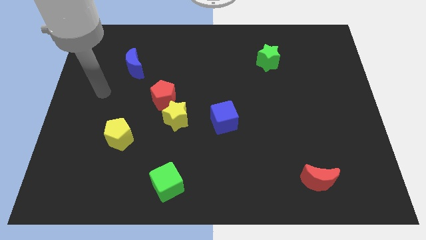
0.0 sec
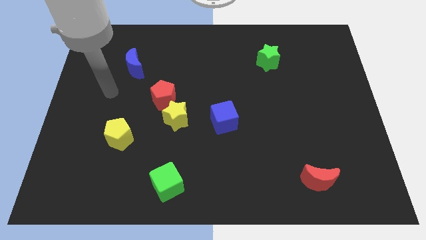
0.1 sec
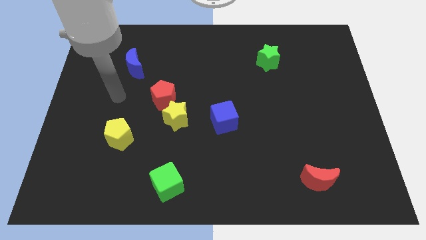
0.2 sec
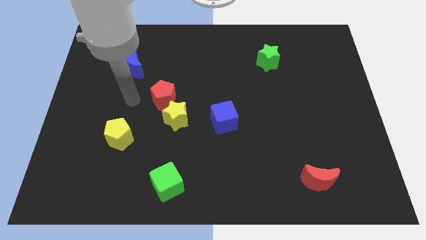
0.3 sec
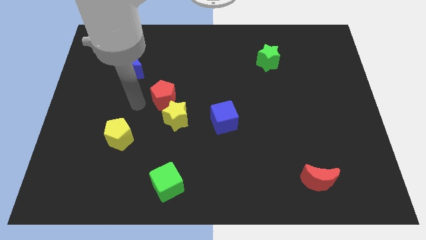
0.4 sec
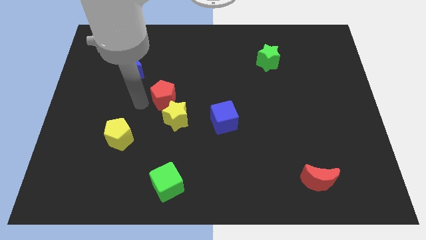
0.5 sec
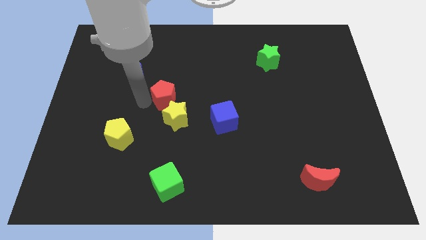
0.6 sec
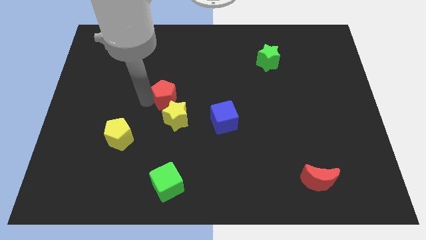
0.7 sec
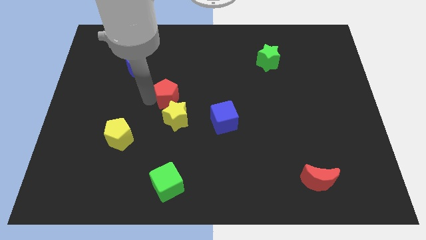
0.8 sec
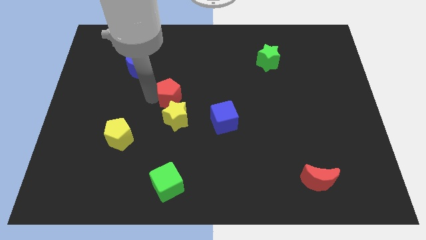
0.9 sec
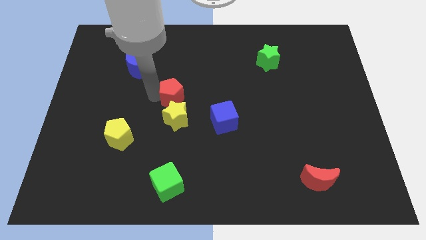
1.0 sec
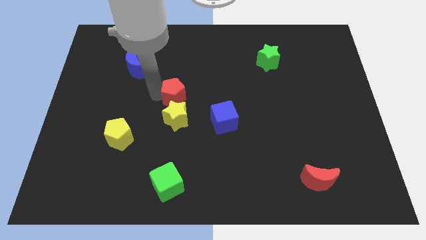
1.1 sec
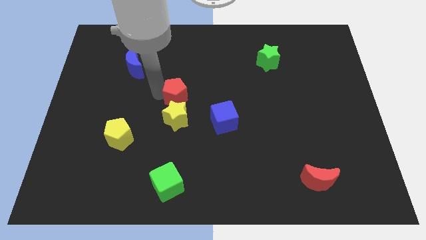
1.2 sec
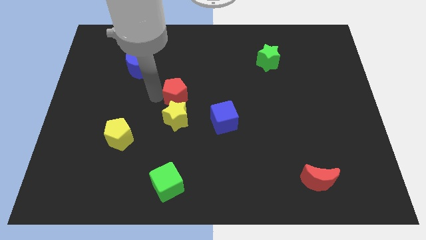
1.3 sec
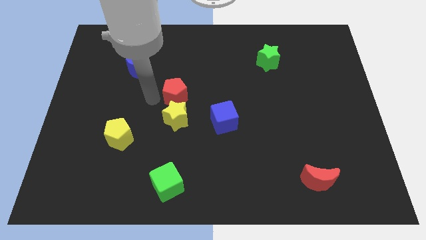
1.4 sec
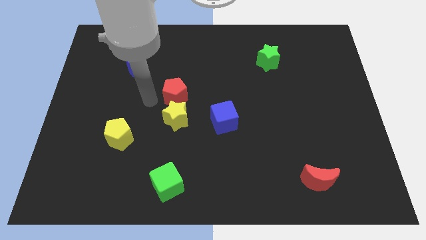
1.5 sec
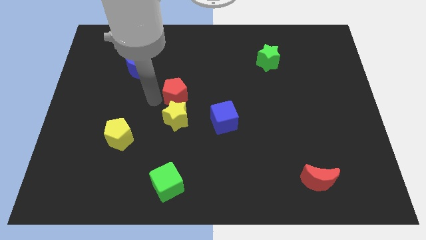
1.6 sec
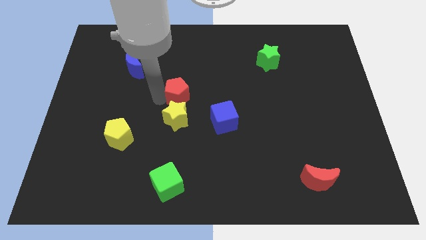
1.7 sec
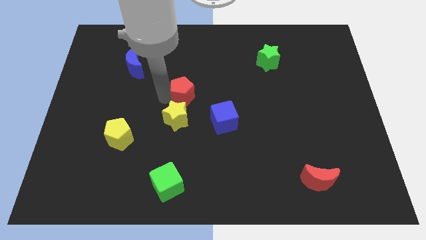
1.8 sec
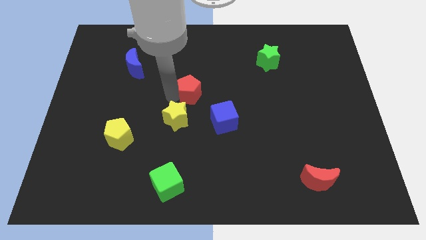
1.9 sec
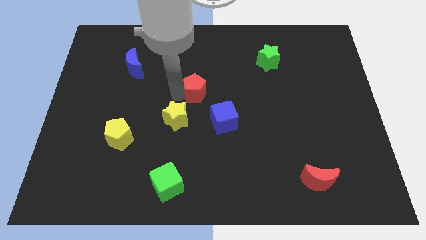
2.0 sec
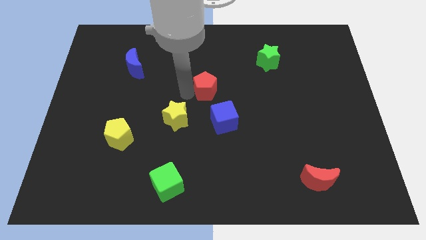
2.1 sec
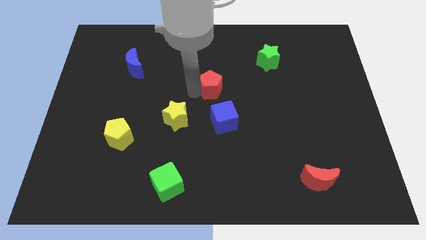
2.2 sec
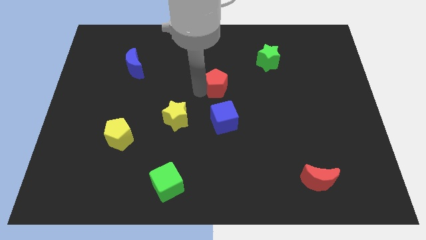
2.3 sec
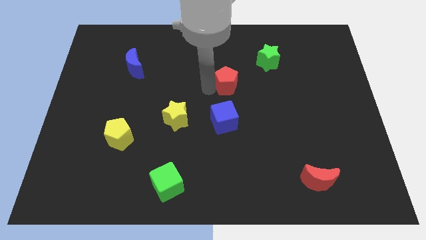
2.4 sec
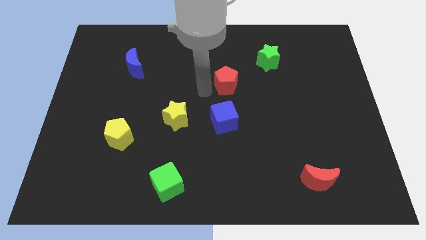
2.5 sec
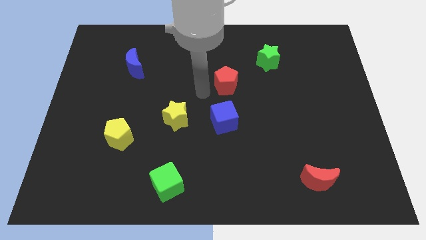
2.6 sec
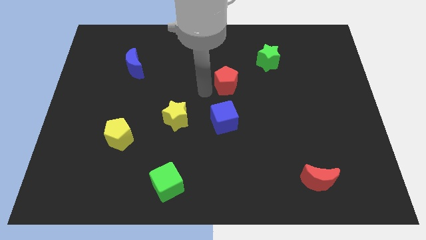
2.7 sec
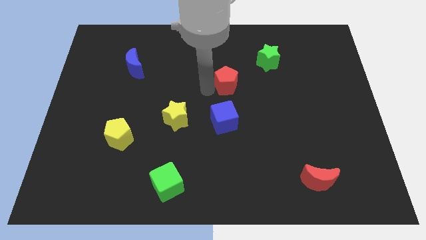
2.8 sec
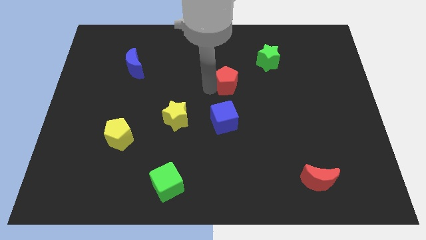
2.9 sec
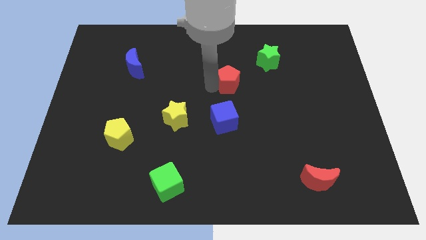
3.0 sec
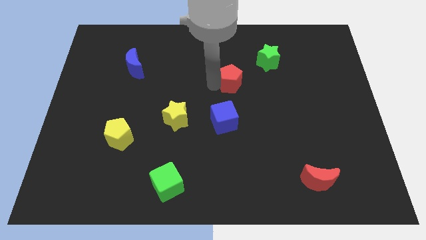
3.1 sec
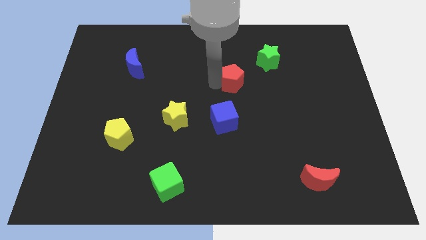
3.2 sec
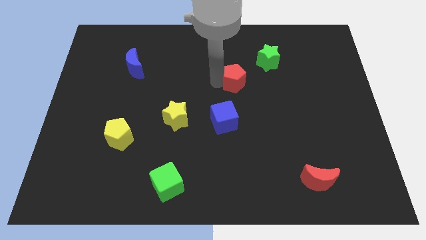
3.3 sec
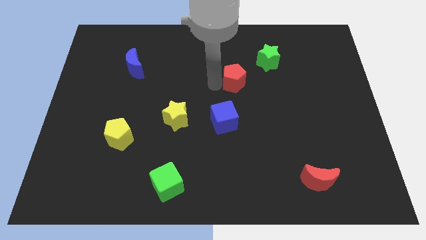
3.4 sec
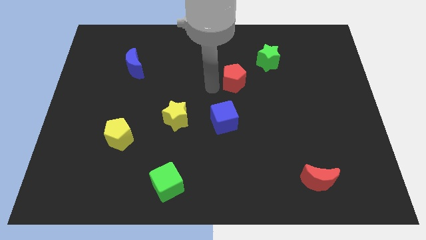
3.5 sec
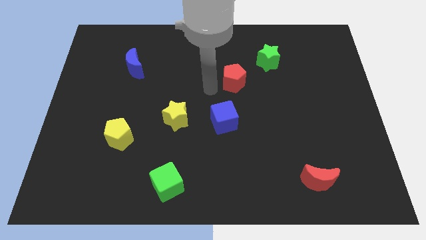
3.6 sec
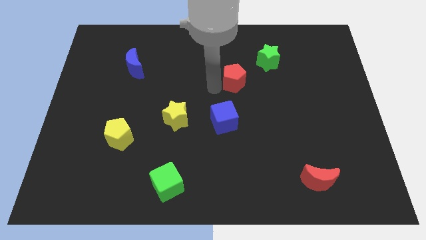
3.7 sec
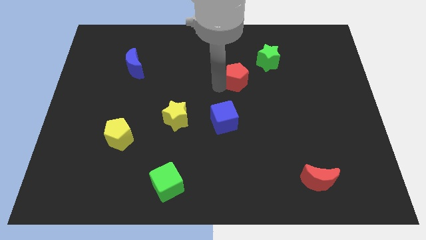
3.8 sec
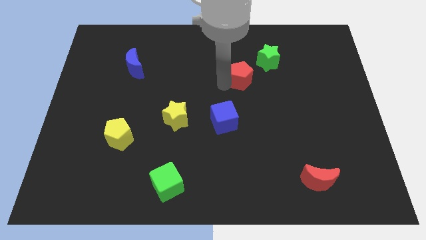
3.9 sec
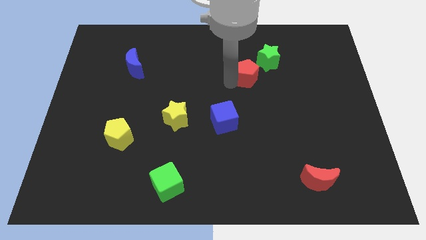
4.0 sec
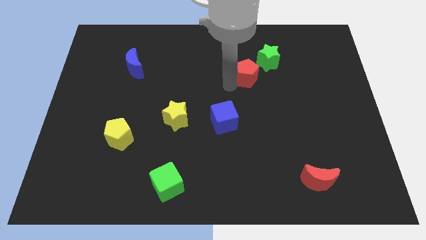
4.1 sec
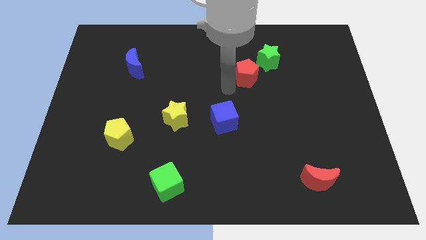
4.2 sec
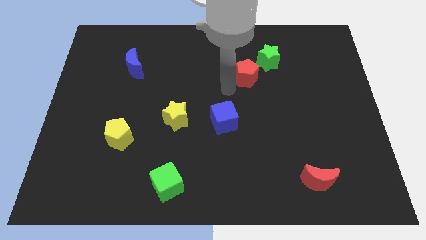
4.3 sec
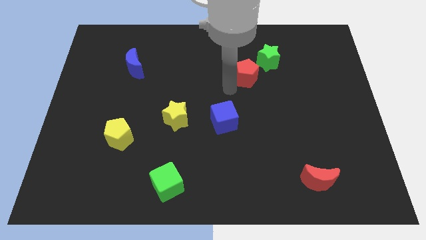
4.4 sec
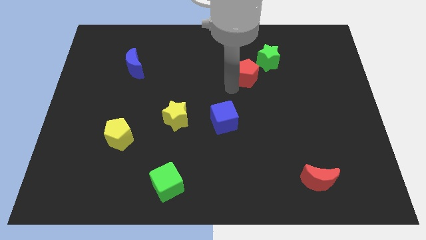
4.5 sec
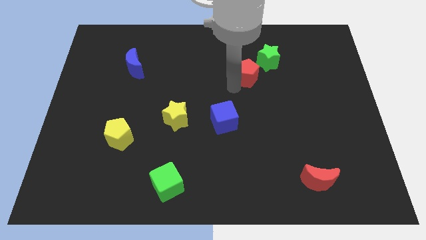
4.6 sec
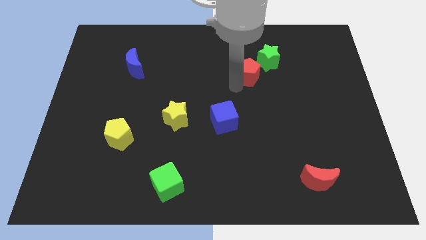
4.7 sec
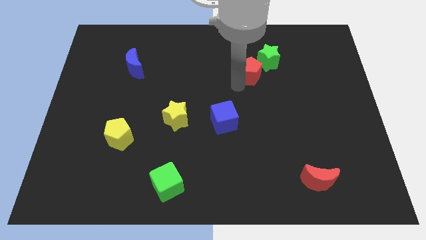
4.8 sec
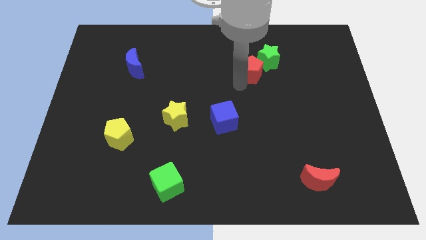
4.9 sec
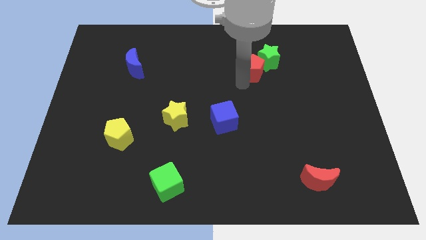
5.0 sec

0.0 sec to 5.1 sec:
push the red pentagon close to the green star

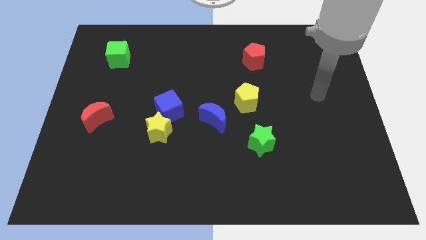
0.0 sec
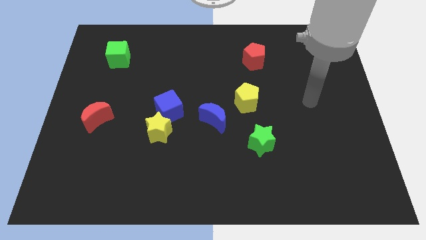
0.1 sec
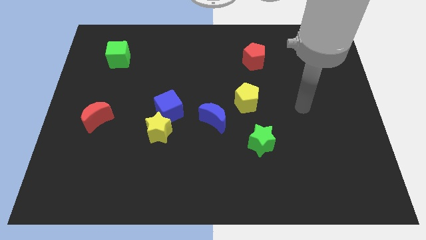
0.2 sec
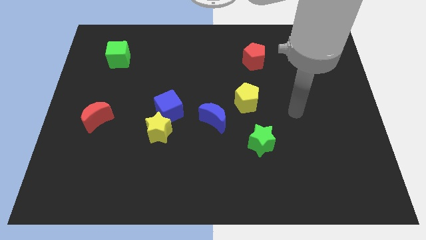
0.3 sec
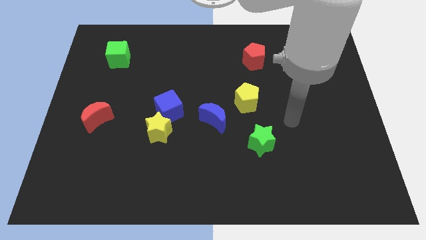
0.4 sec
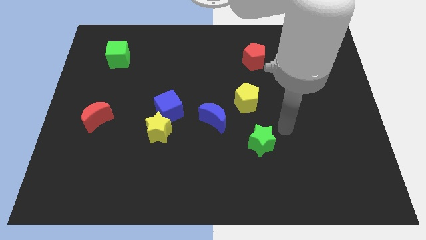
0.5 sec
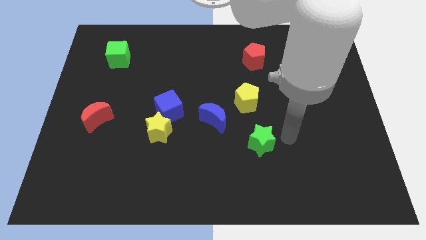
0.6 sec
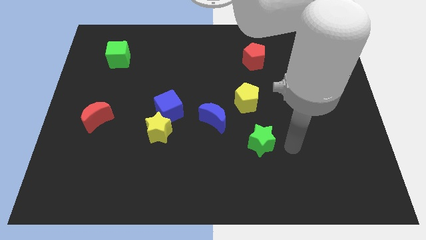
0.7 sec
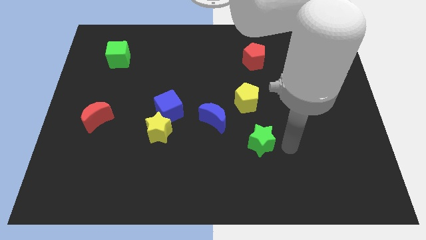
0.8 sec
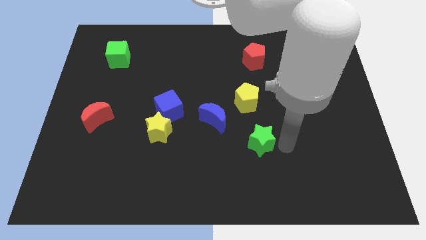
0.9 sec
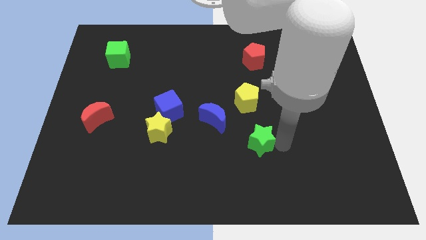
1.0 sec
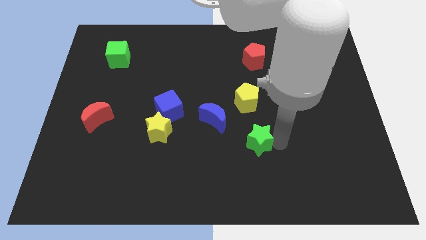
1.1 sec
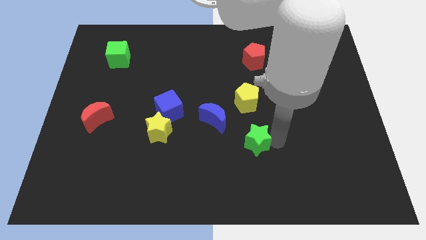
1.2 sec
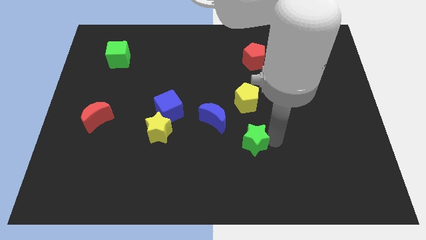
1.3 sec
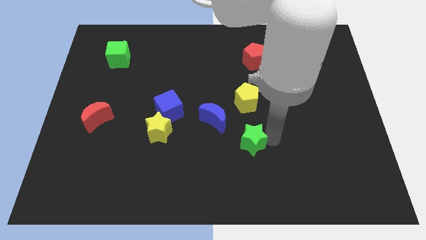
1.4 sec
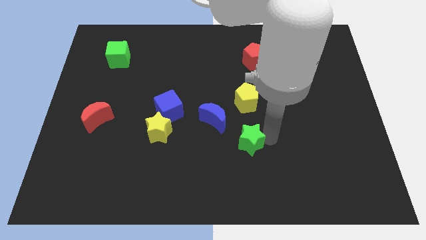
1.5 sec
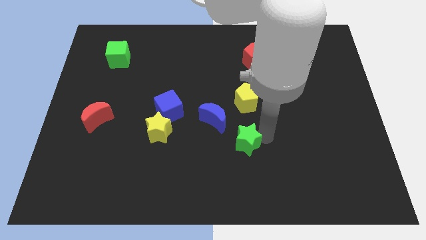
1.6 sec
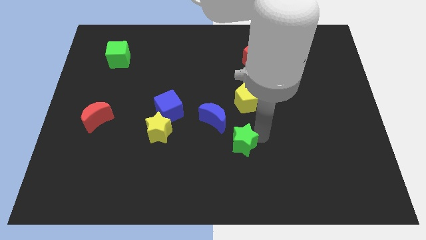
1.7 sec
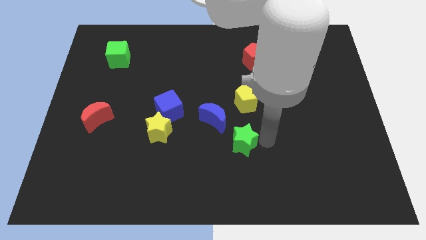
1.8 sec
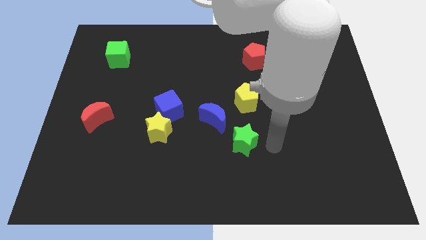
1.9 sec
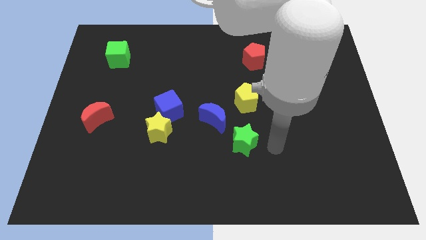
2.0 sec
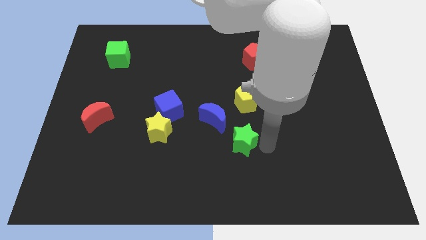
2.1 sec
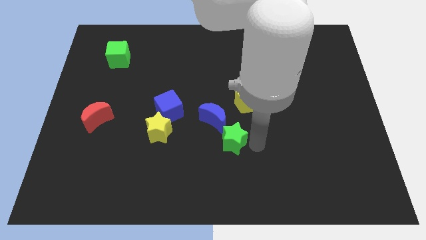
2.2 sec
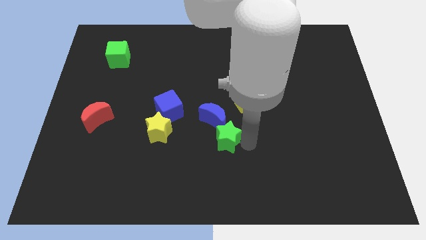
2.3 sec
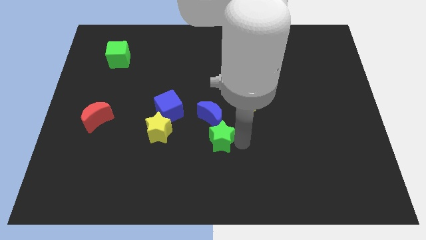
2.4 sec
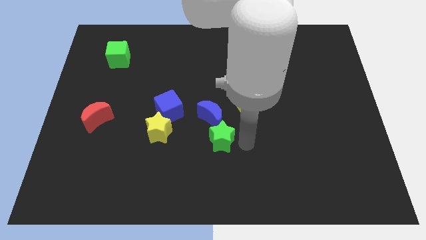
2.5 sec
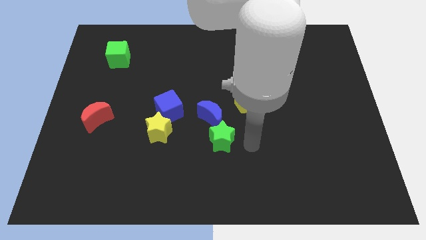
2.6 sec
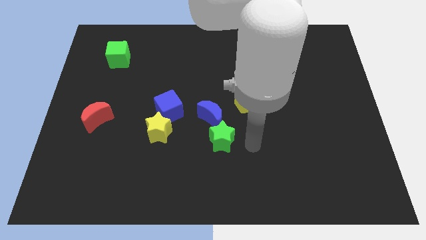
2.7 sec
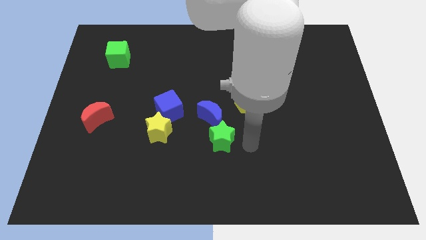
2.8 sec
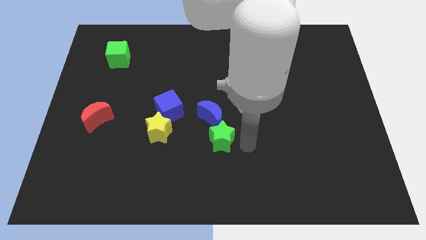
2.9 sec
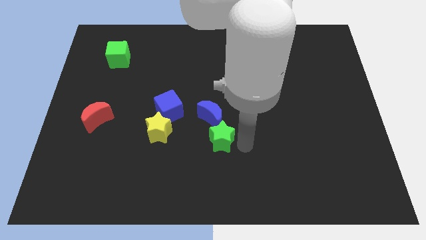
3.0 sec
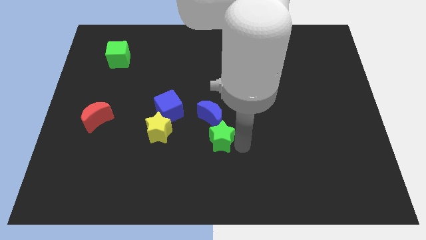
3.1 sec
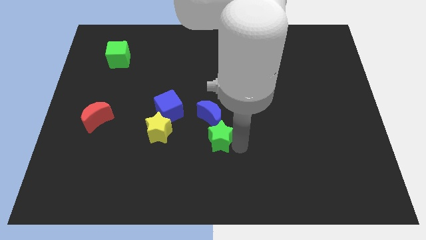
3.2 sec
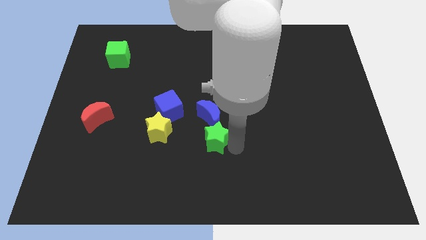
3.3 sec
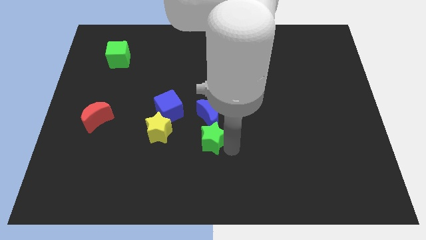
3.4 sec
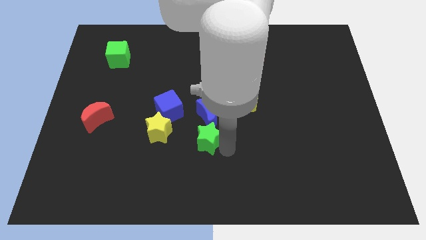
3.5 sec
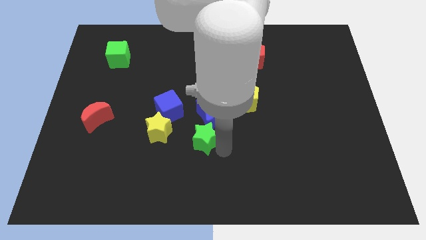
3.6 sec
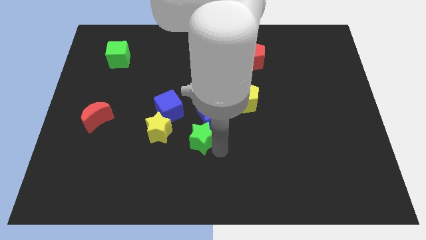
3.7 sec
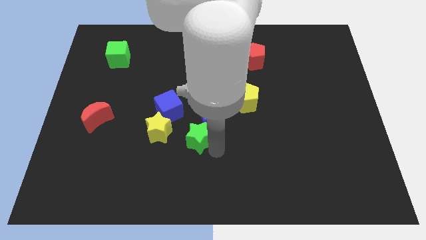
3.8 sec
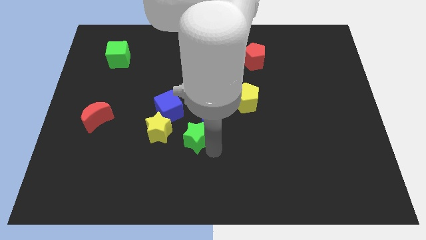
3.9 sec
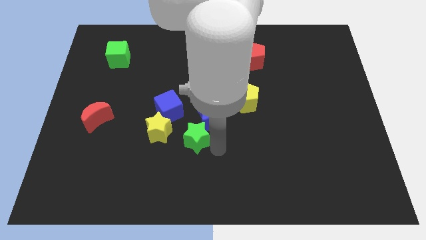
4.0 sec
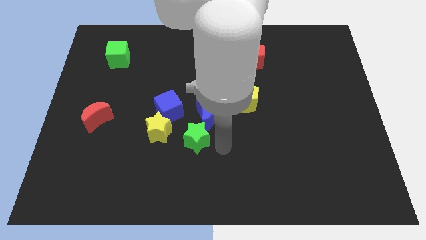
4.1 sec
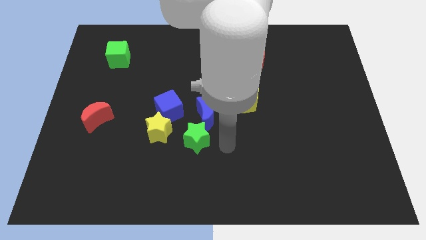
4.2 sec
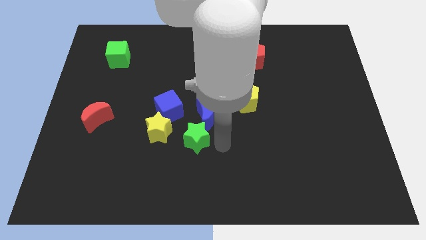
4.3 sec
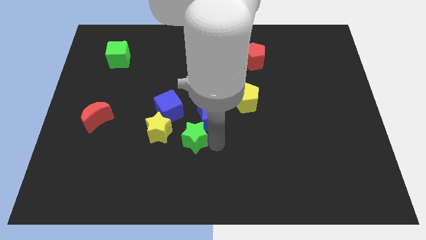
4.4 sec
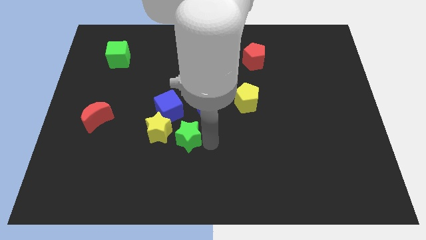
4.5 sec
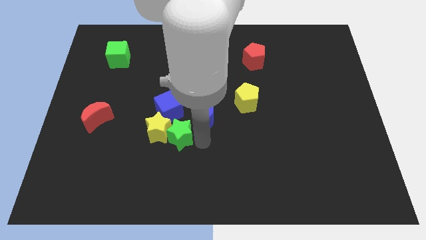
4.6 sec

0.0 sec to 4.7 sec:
move the green star next to the yellow star
